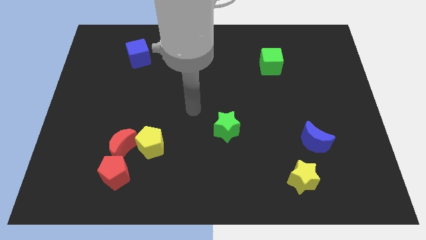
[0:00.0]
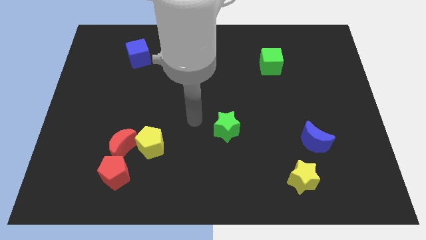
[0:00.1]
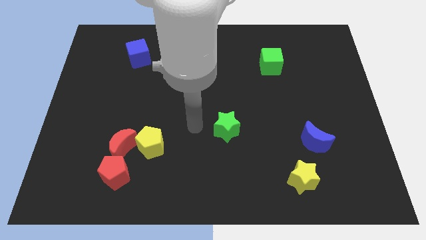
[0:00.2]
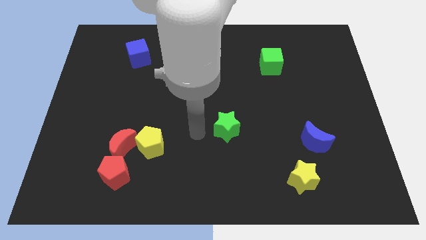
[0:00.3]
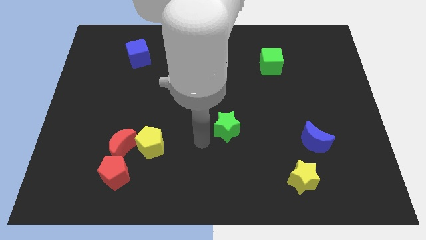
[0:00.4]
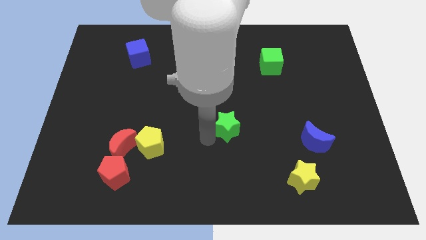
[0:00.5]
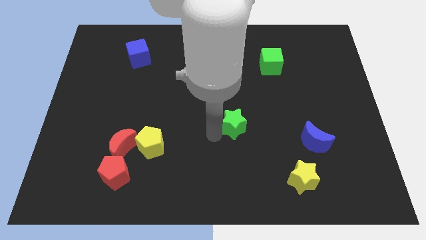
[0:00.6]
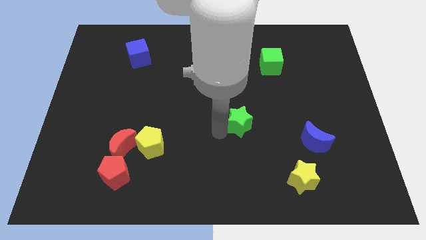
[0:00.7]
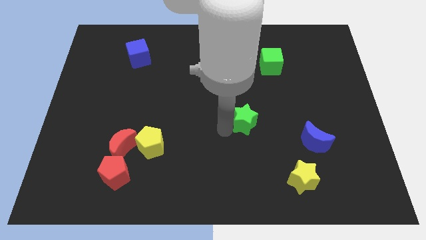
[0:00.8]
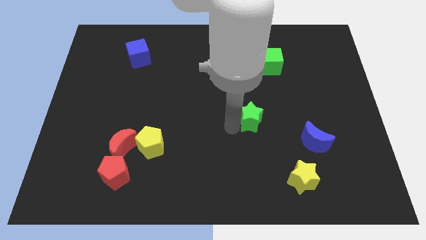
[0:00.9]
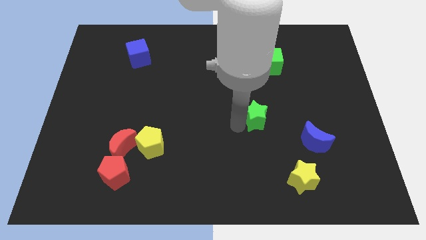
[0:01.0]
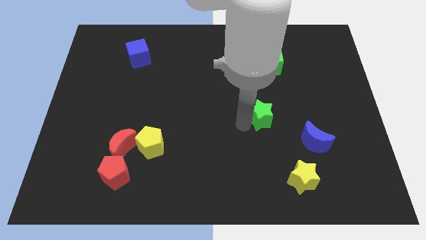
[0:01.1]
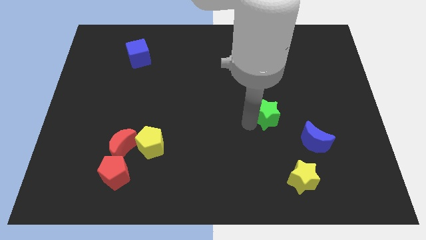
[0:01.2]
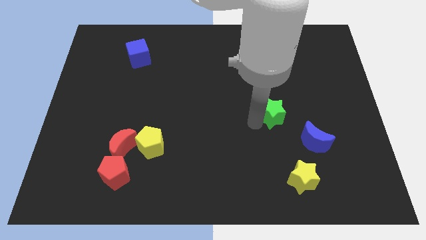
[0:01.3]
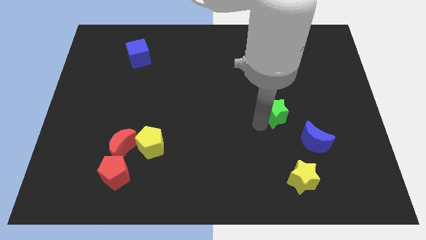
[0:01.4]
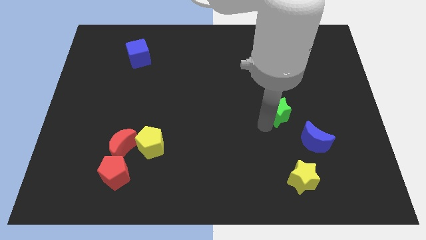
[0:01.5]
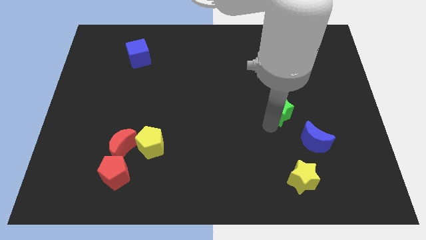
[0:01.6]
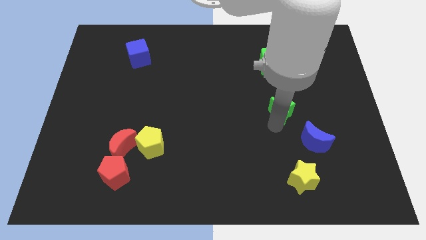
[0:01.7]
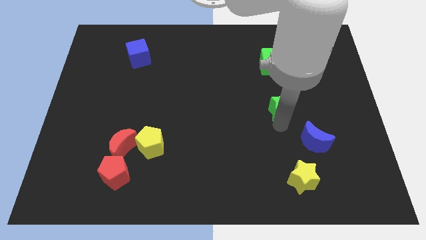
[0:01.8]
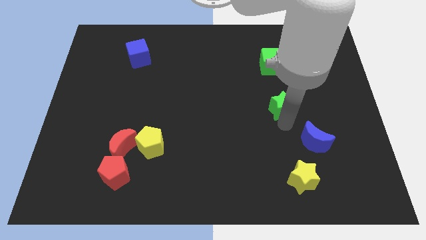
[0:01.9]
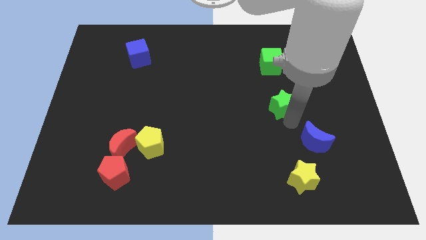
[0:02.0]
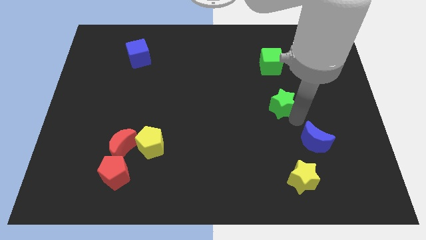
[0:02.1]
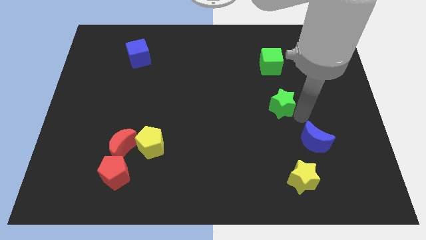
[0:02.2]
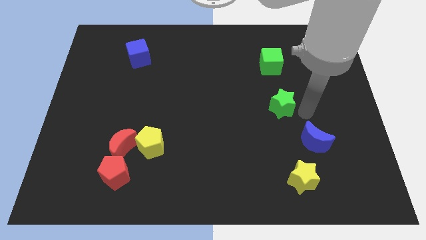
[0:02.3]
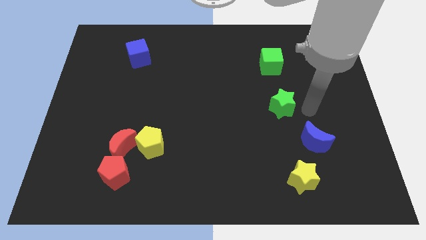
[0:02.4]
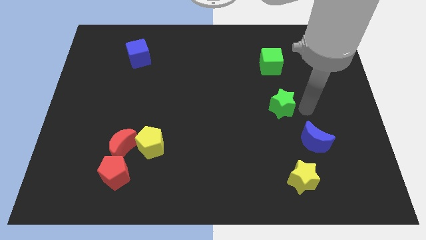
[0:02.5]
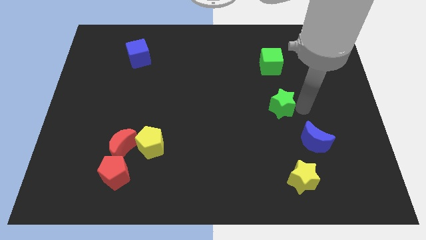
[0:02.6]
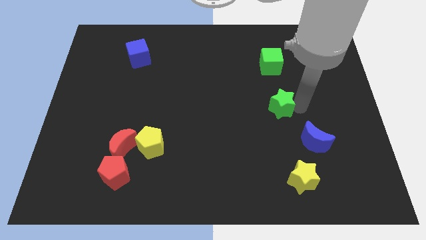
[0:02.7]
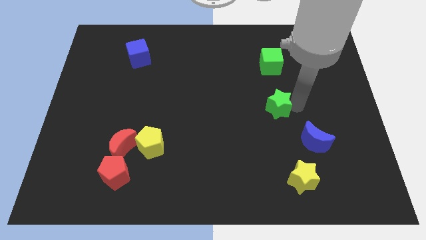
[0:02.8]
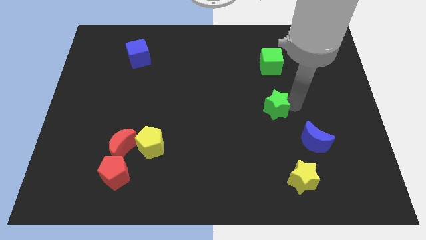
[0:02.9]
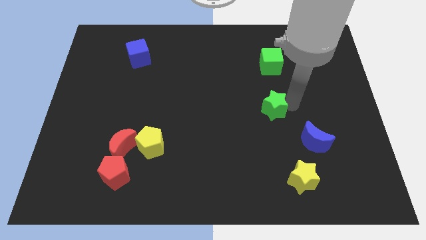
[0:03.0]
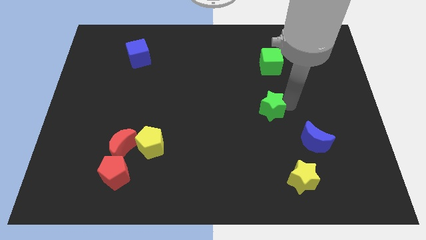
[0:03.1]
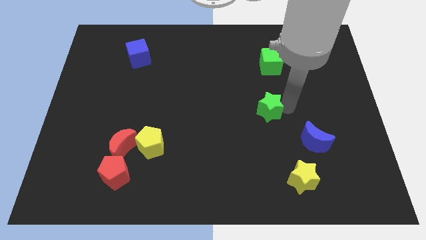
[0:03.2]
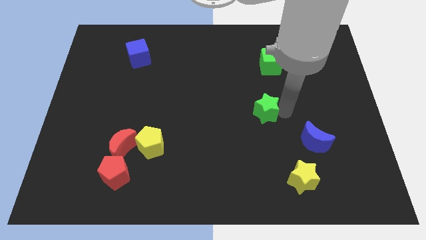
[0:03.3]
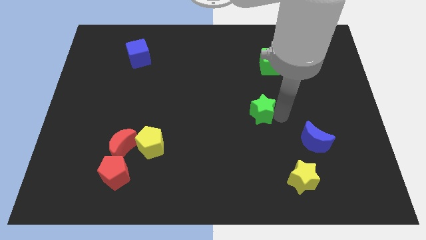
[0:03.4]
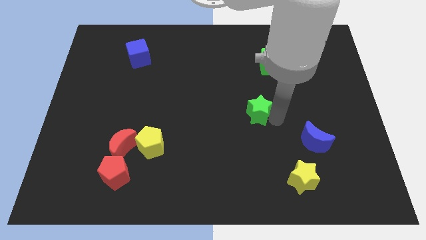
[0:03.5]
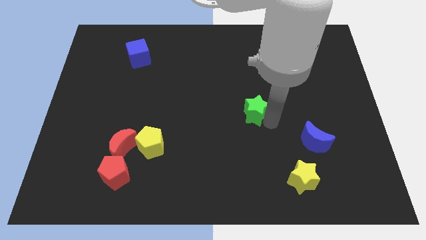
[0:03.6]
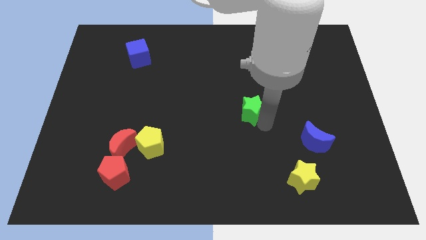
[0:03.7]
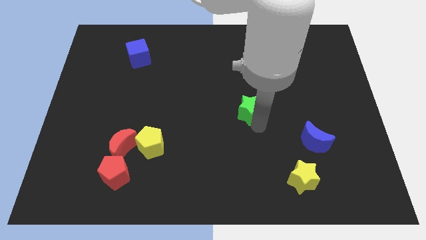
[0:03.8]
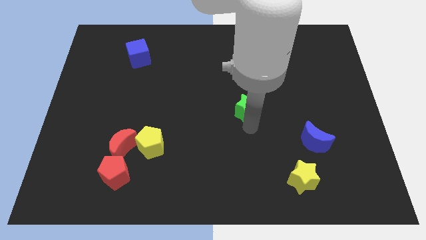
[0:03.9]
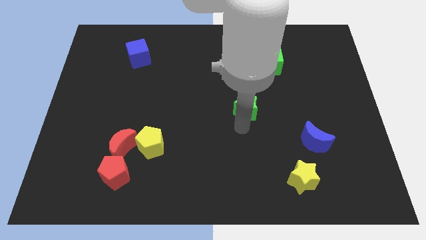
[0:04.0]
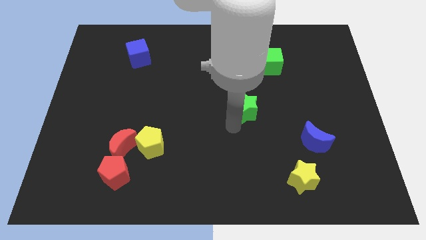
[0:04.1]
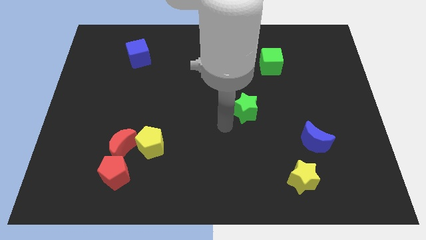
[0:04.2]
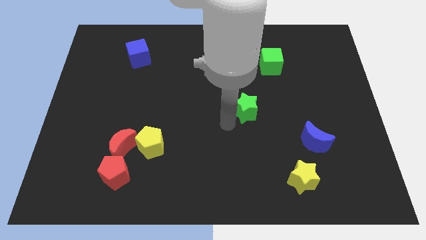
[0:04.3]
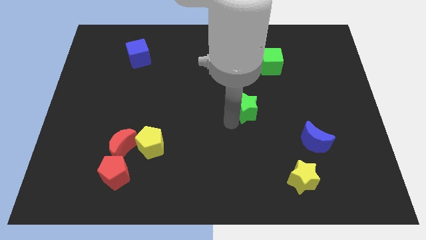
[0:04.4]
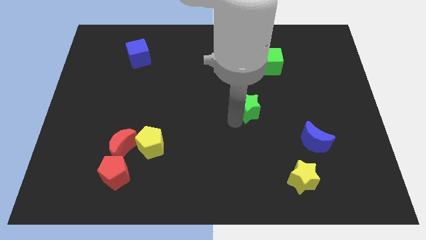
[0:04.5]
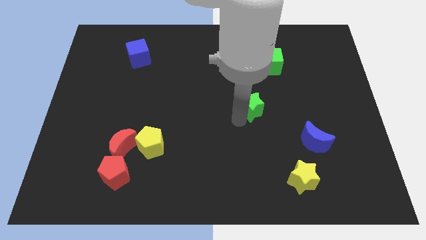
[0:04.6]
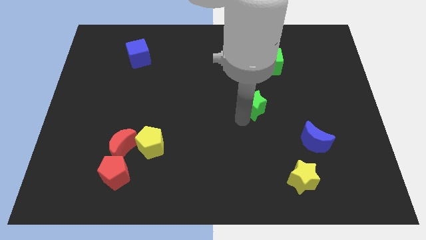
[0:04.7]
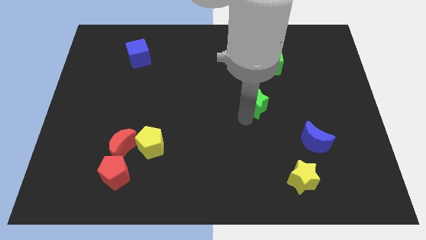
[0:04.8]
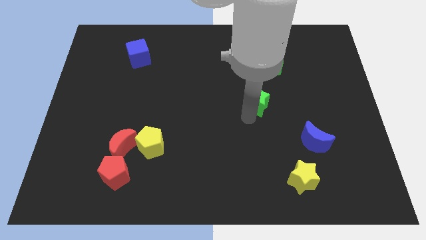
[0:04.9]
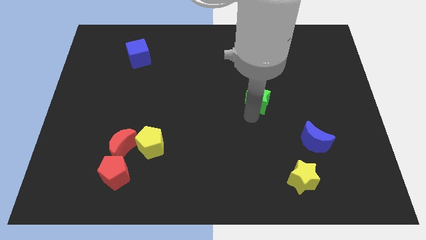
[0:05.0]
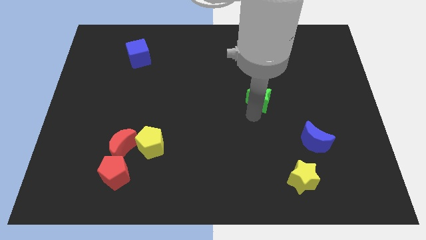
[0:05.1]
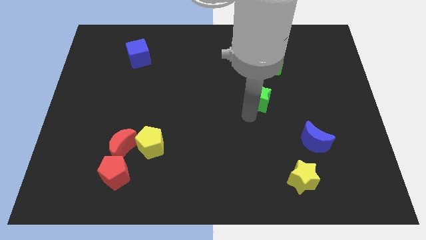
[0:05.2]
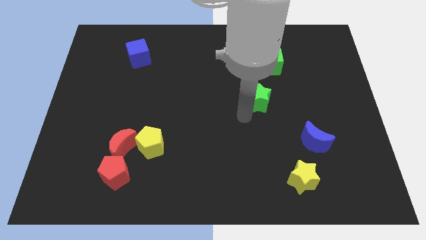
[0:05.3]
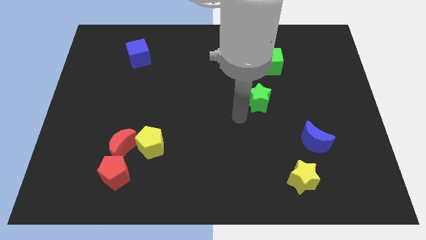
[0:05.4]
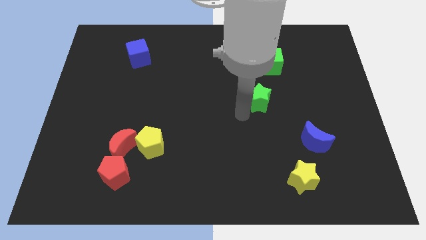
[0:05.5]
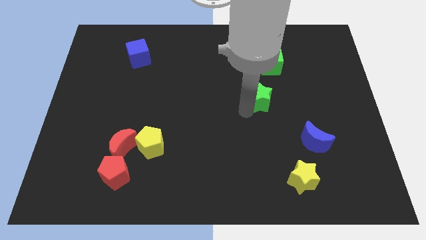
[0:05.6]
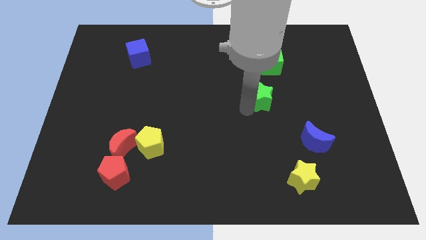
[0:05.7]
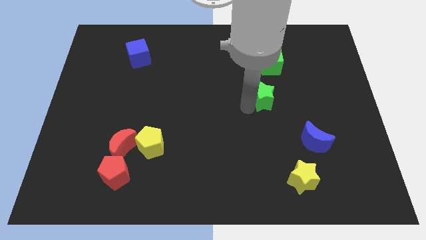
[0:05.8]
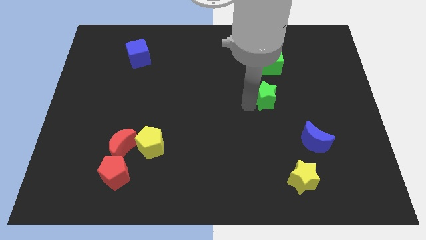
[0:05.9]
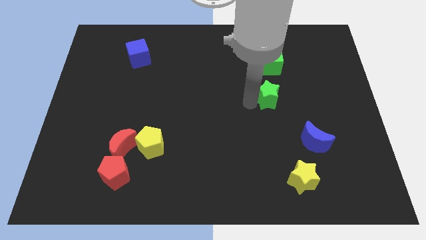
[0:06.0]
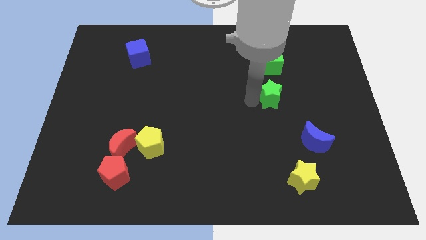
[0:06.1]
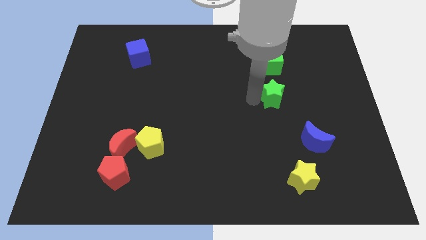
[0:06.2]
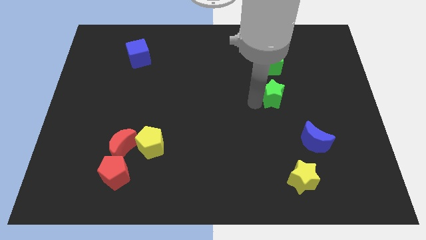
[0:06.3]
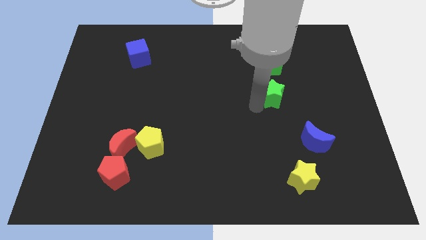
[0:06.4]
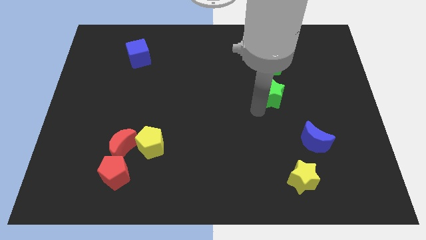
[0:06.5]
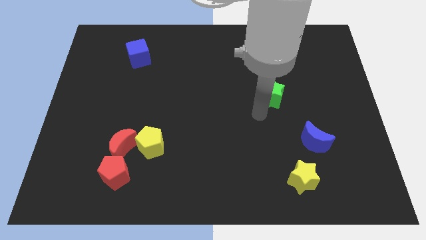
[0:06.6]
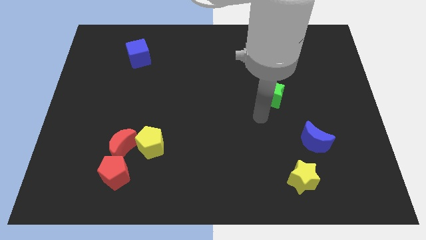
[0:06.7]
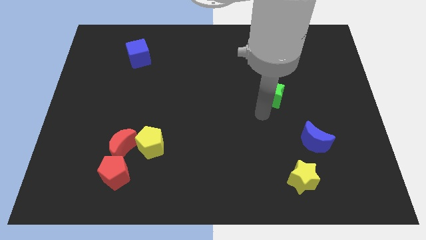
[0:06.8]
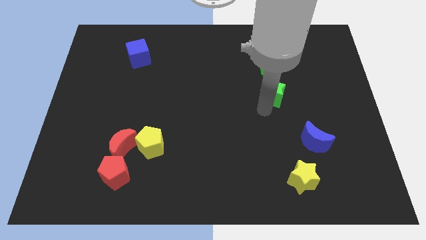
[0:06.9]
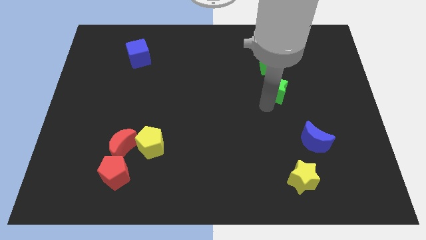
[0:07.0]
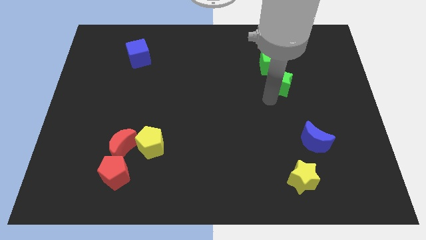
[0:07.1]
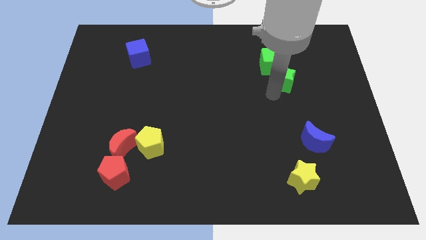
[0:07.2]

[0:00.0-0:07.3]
slide the green star up and right diagonally
